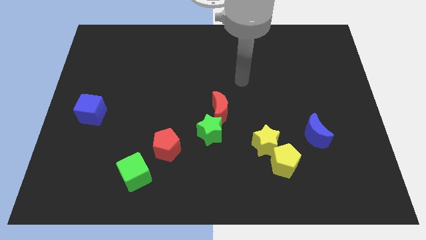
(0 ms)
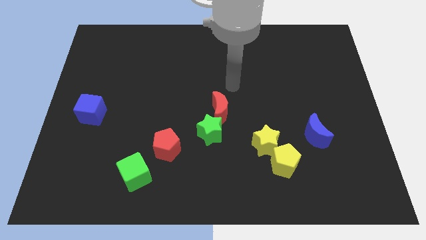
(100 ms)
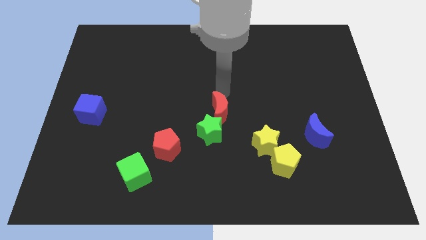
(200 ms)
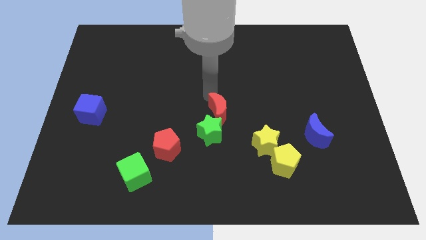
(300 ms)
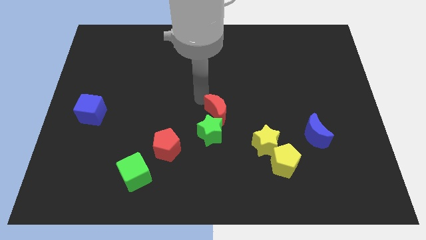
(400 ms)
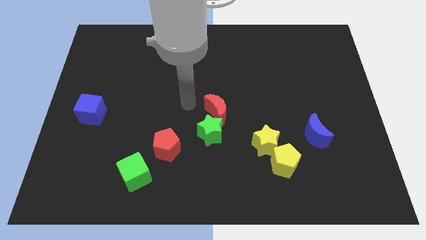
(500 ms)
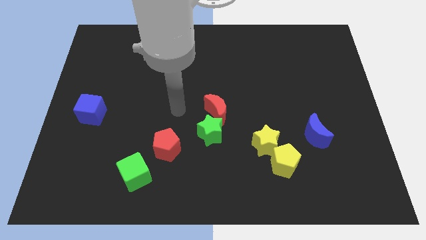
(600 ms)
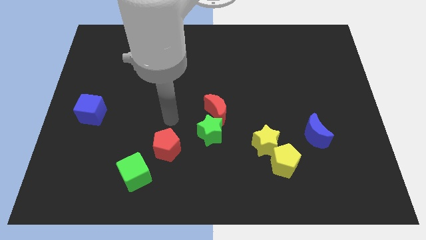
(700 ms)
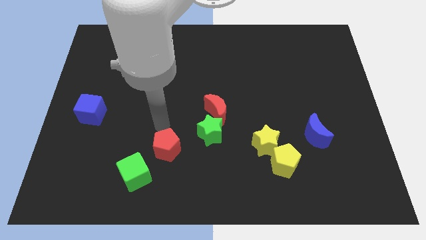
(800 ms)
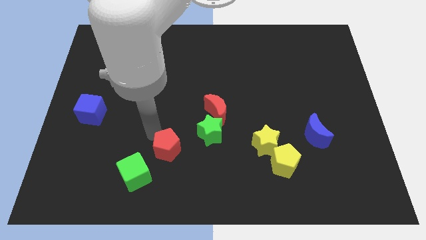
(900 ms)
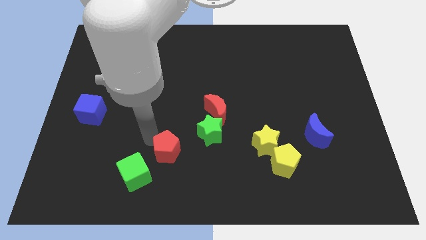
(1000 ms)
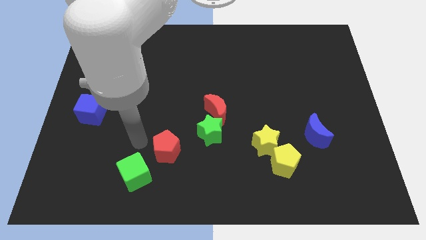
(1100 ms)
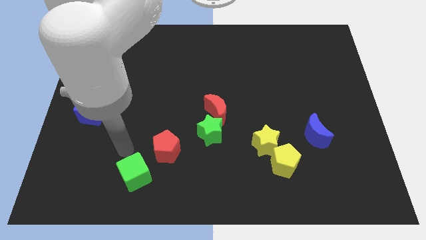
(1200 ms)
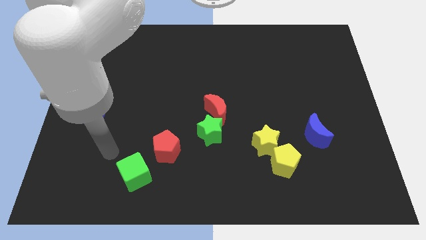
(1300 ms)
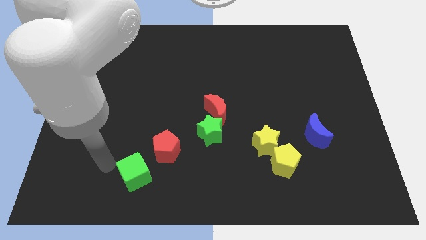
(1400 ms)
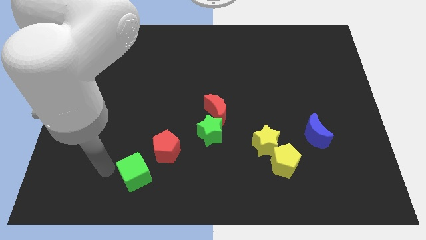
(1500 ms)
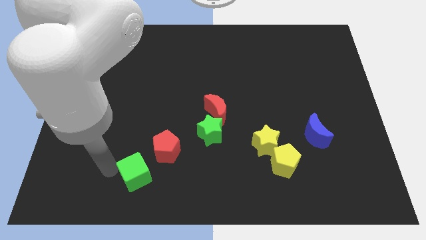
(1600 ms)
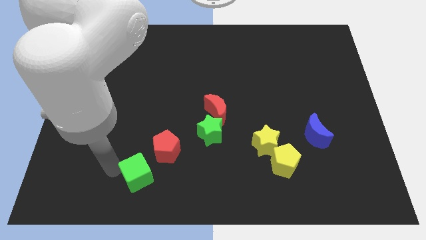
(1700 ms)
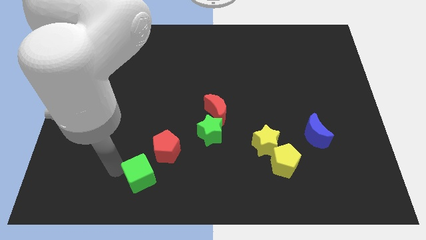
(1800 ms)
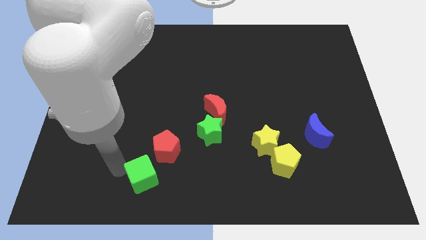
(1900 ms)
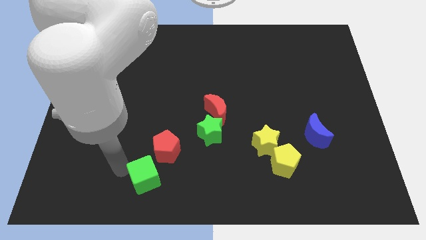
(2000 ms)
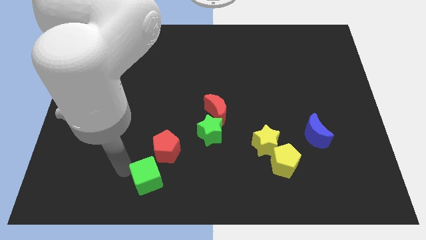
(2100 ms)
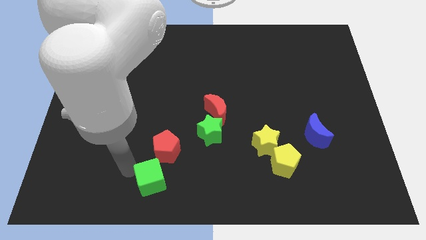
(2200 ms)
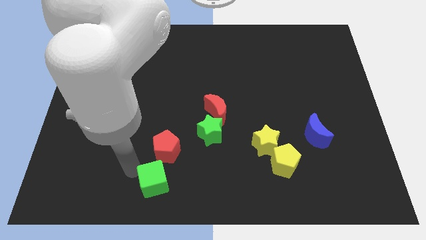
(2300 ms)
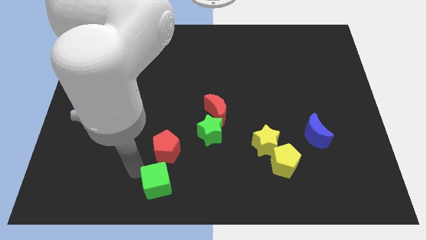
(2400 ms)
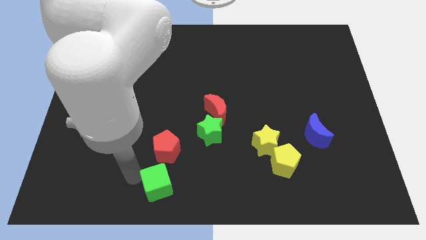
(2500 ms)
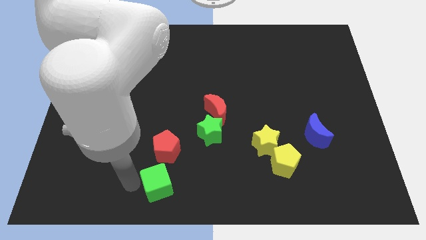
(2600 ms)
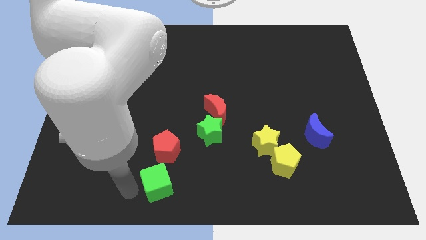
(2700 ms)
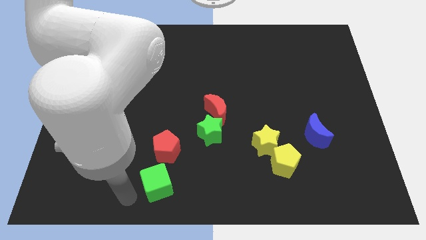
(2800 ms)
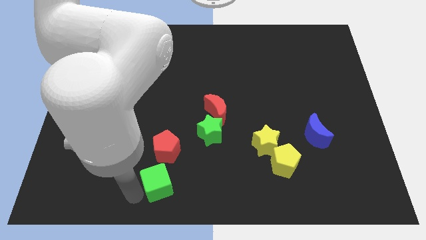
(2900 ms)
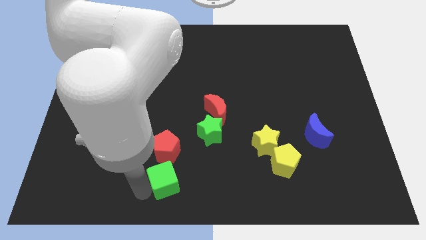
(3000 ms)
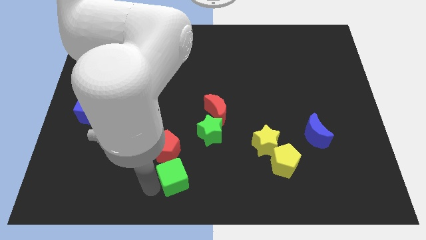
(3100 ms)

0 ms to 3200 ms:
slide the green cube a little bit right

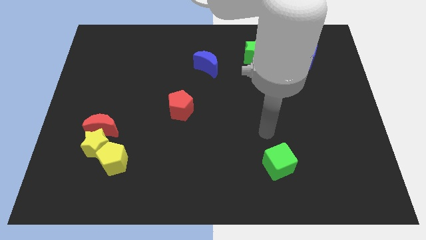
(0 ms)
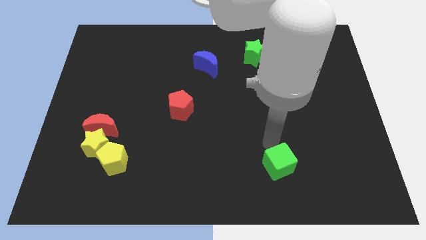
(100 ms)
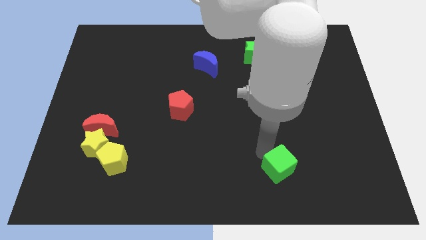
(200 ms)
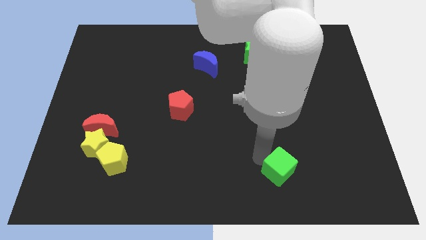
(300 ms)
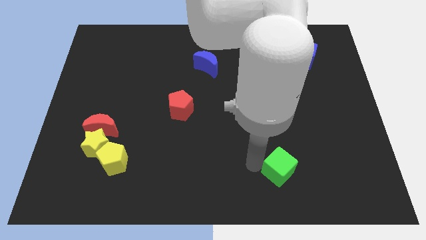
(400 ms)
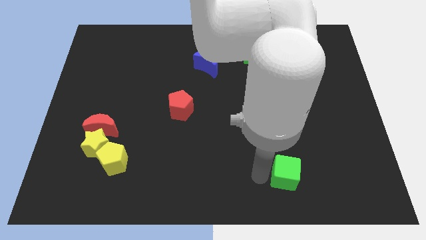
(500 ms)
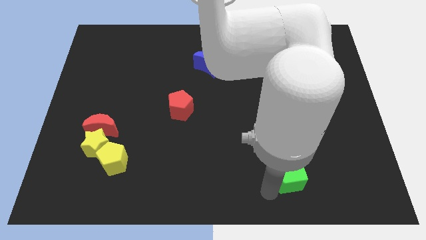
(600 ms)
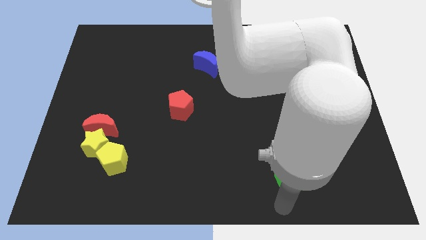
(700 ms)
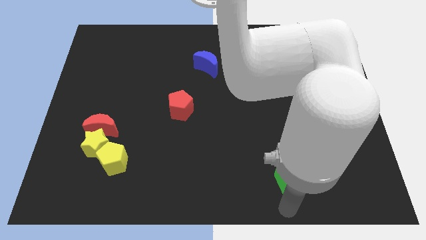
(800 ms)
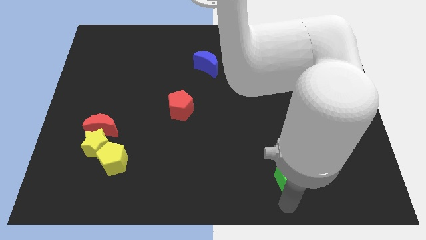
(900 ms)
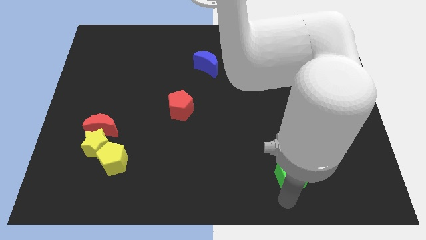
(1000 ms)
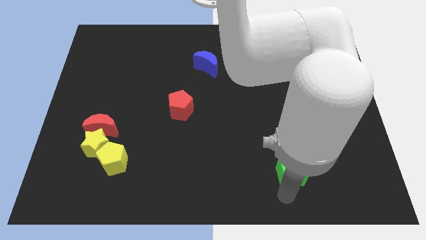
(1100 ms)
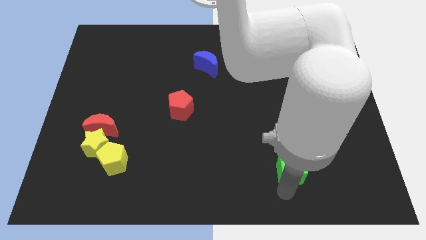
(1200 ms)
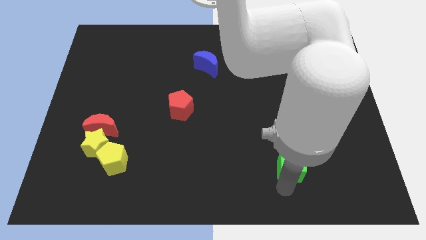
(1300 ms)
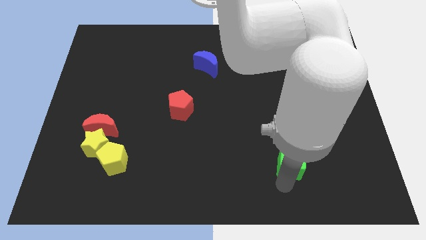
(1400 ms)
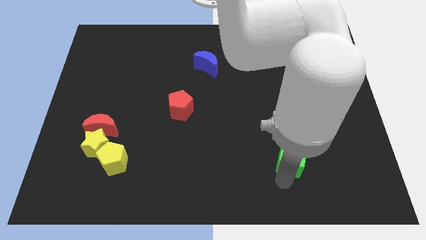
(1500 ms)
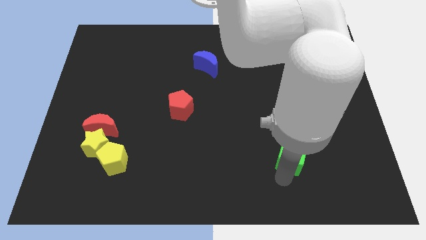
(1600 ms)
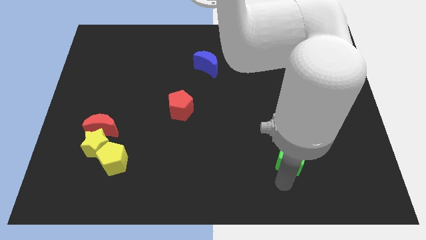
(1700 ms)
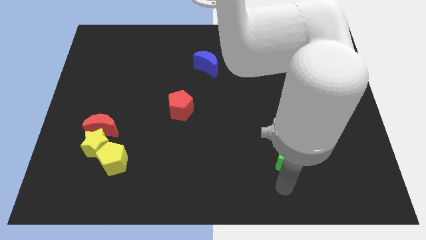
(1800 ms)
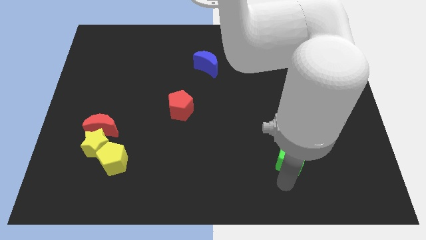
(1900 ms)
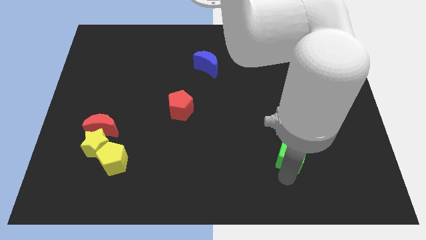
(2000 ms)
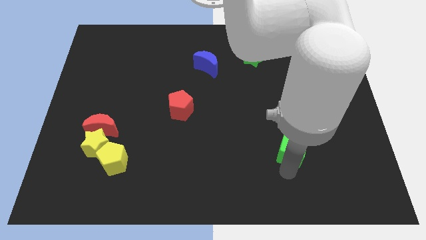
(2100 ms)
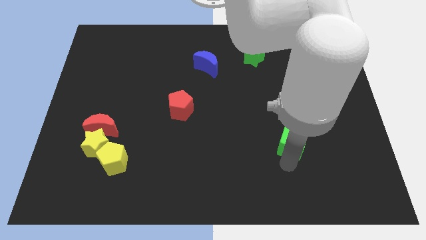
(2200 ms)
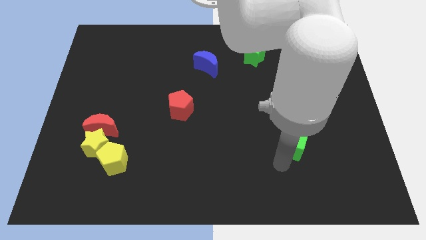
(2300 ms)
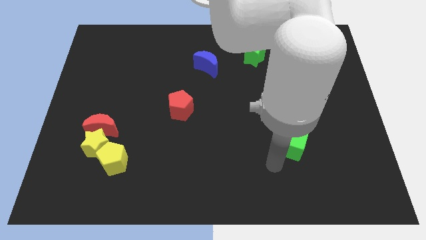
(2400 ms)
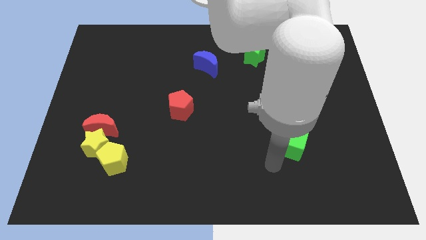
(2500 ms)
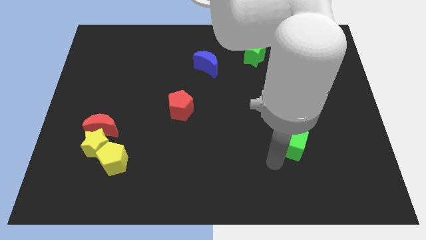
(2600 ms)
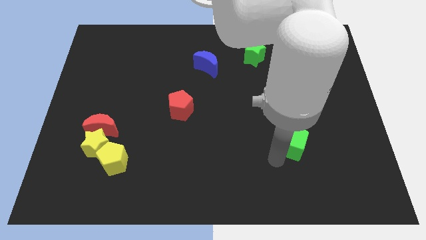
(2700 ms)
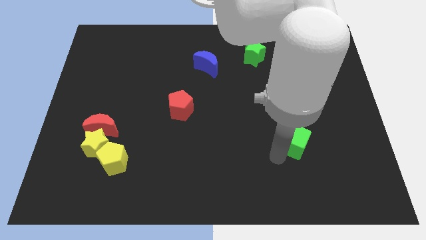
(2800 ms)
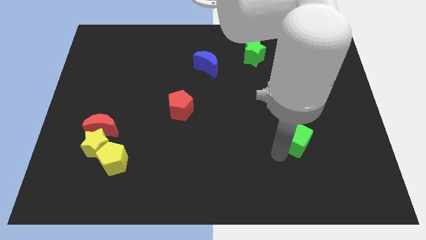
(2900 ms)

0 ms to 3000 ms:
slide the green cube up and to the right diagonally a bit

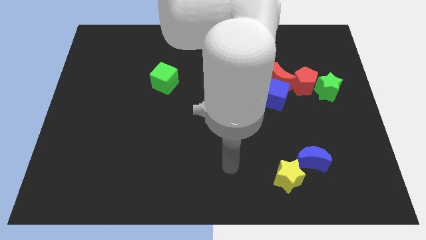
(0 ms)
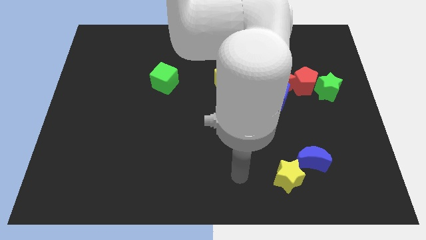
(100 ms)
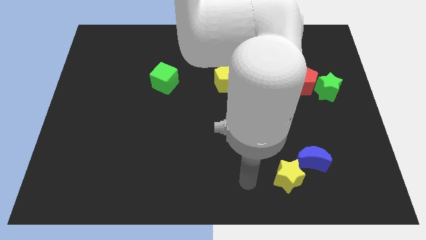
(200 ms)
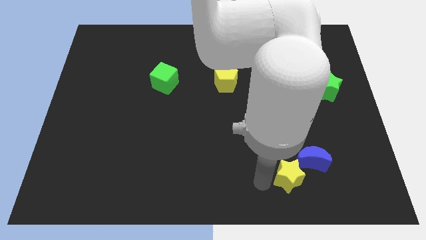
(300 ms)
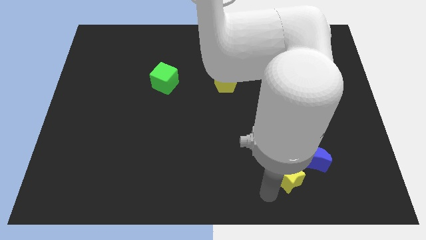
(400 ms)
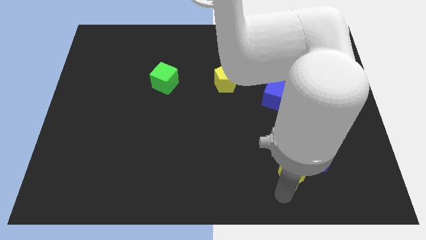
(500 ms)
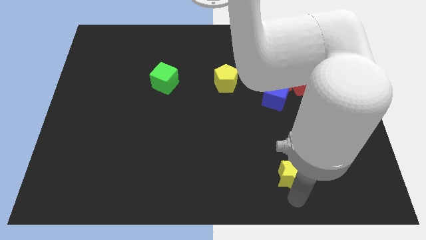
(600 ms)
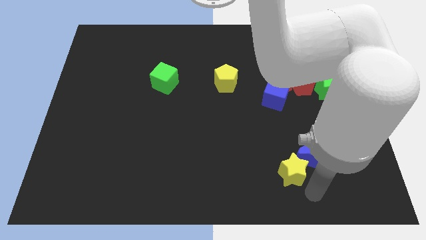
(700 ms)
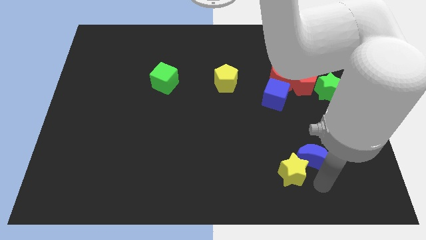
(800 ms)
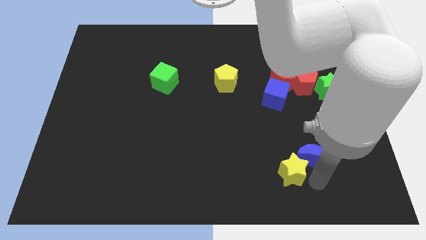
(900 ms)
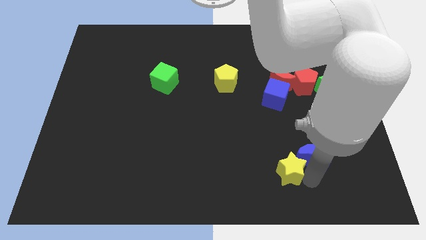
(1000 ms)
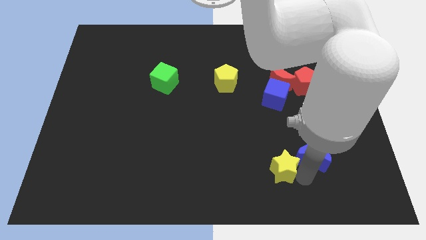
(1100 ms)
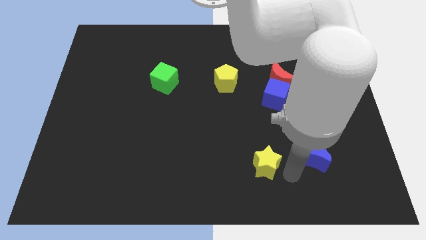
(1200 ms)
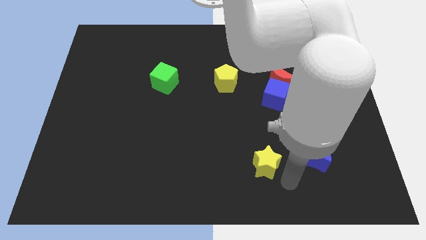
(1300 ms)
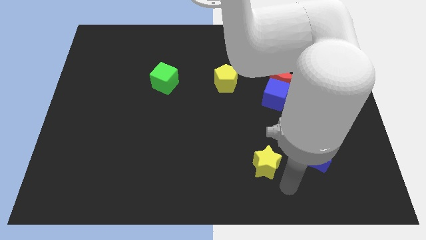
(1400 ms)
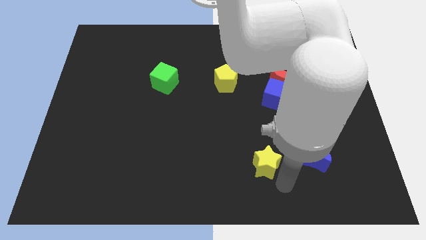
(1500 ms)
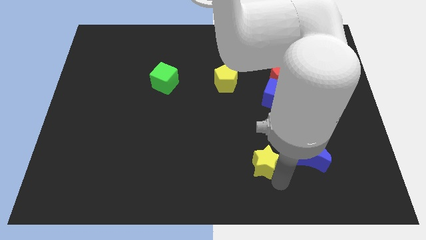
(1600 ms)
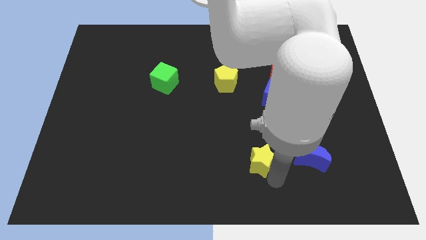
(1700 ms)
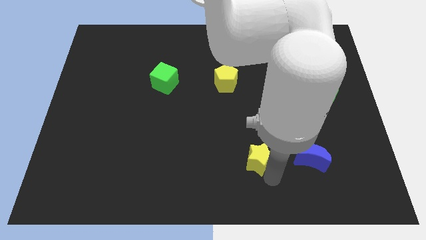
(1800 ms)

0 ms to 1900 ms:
push the yellow star diagonally upwards and left slightly
